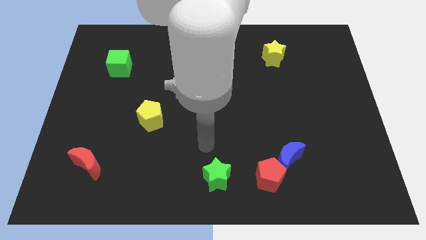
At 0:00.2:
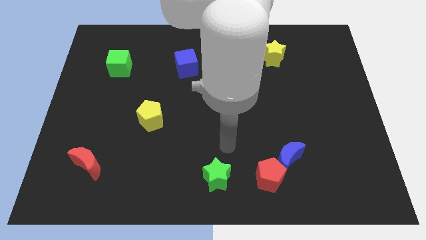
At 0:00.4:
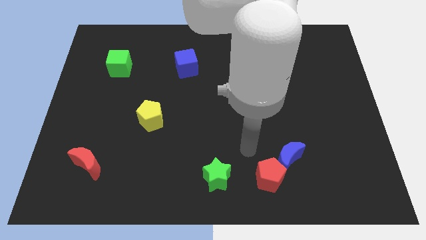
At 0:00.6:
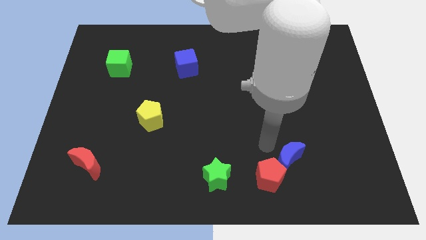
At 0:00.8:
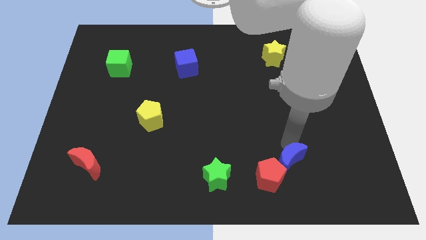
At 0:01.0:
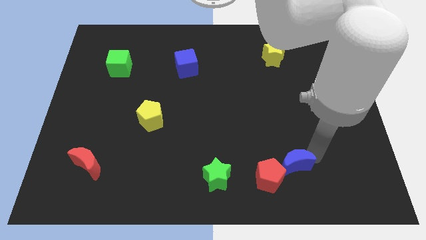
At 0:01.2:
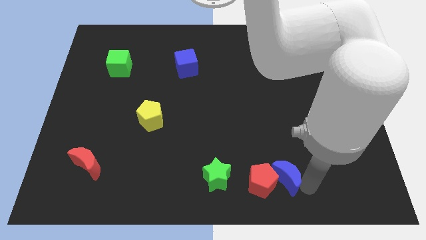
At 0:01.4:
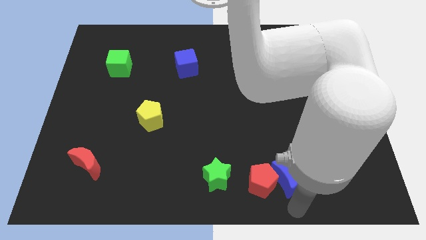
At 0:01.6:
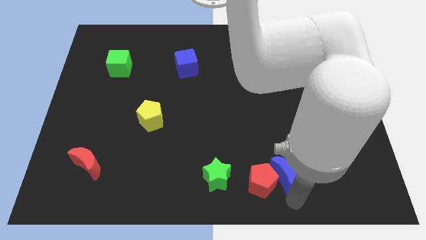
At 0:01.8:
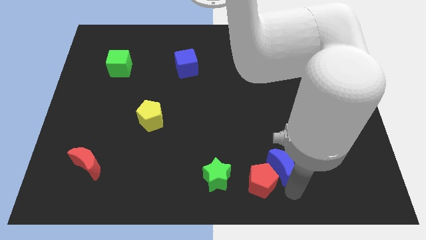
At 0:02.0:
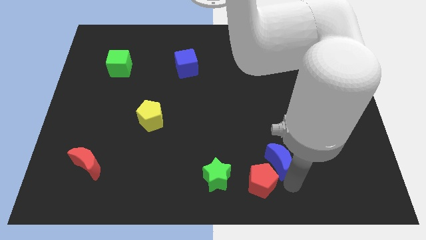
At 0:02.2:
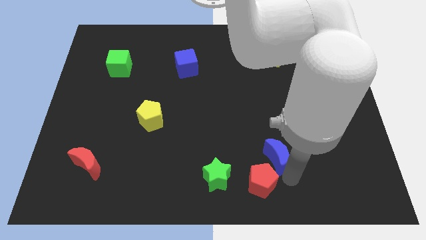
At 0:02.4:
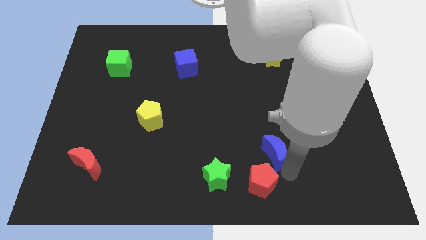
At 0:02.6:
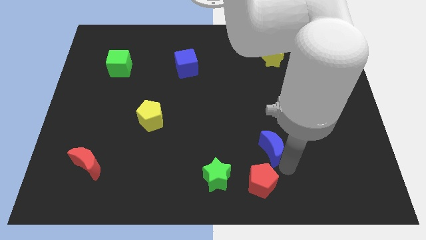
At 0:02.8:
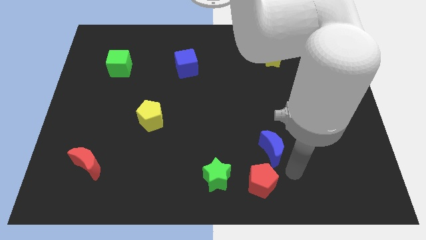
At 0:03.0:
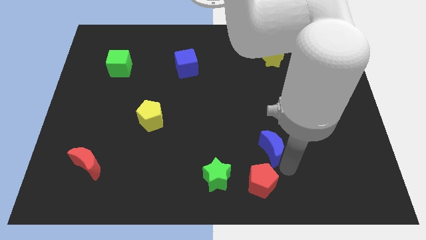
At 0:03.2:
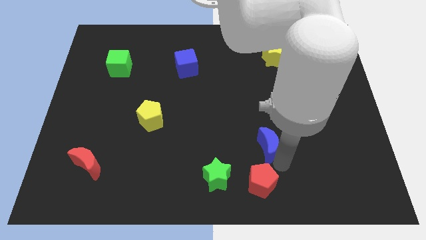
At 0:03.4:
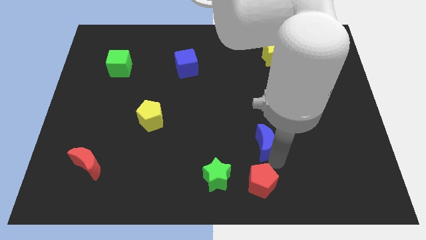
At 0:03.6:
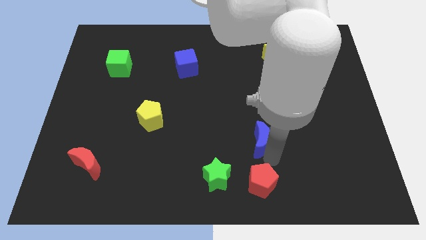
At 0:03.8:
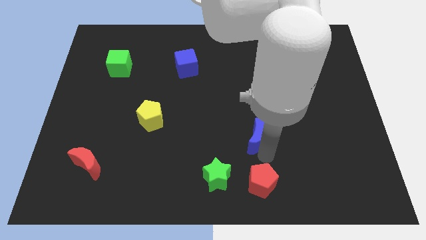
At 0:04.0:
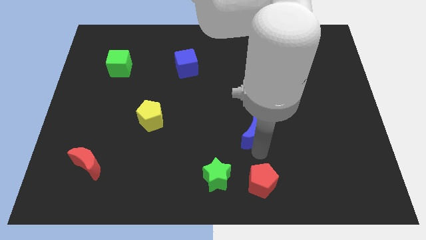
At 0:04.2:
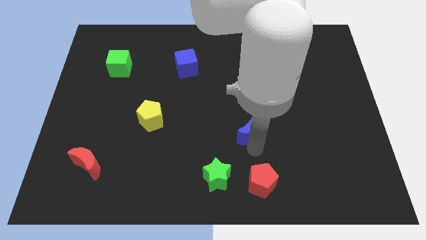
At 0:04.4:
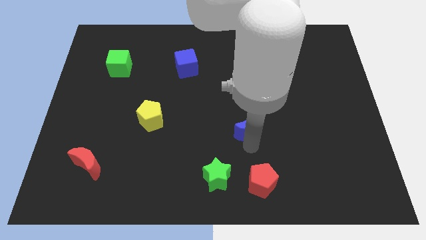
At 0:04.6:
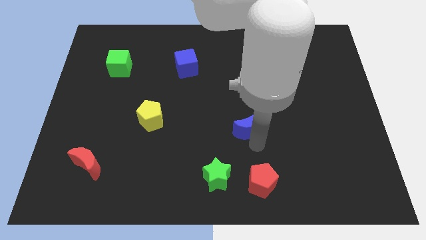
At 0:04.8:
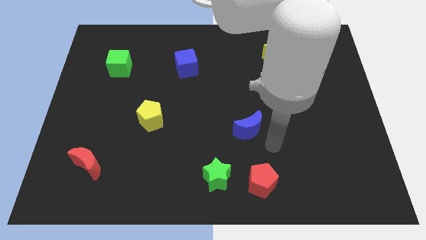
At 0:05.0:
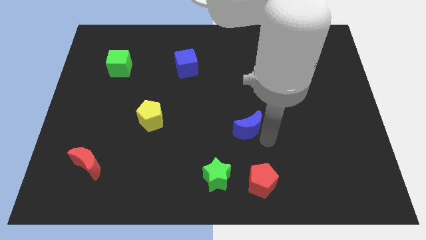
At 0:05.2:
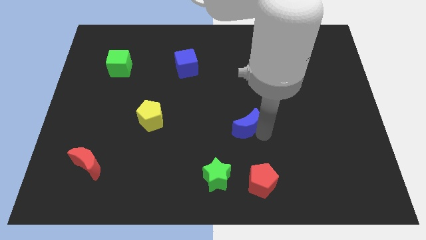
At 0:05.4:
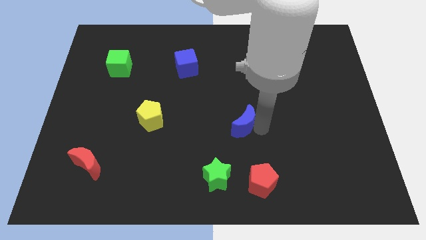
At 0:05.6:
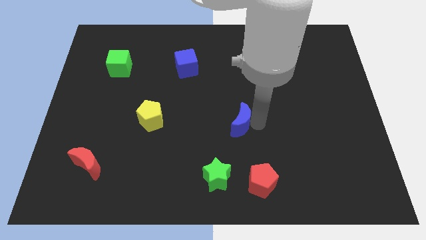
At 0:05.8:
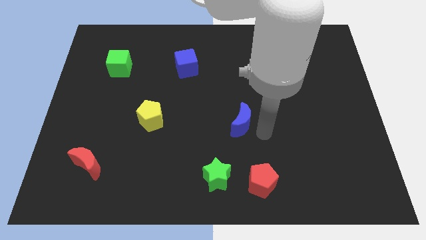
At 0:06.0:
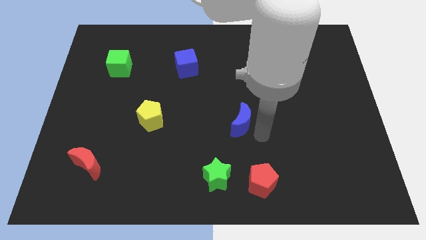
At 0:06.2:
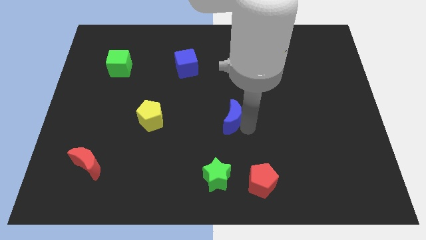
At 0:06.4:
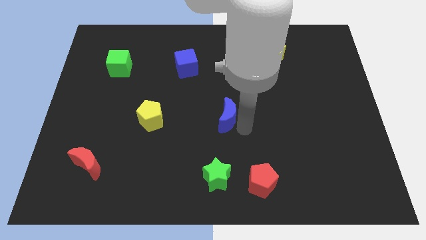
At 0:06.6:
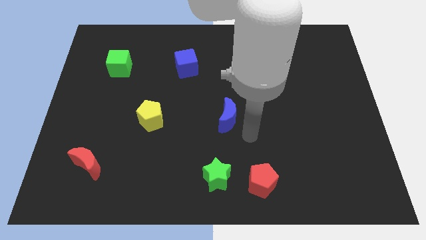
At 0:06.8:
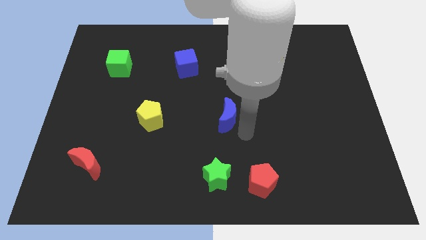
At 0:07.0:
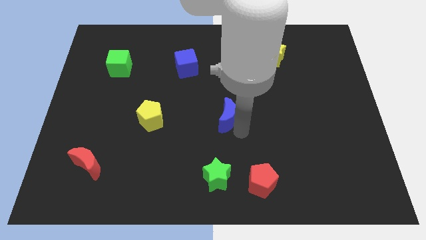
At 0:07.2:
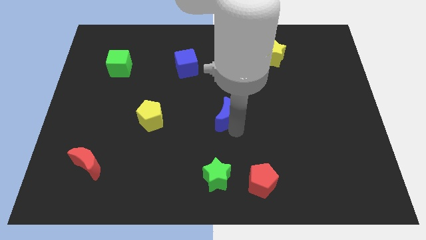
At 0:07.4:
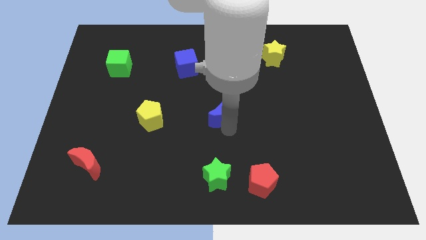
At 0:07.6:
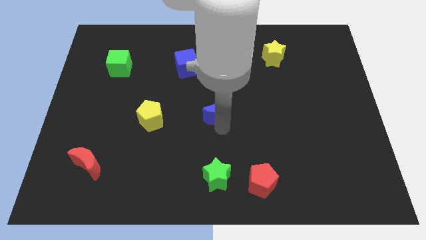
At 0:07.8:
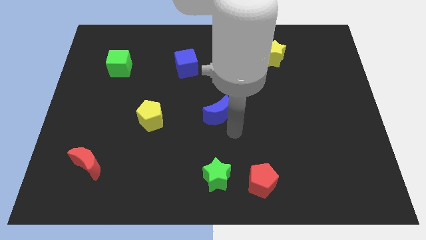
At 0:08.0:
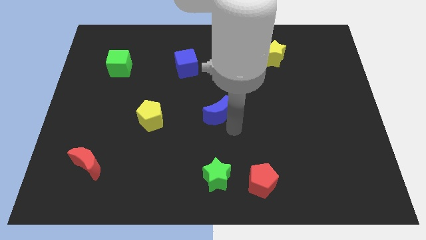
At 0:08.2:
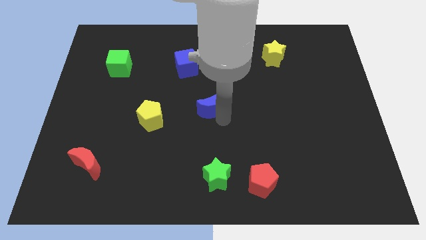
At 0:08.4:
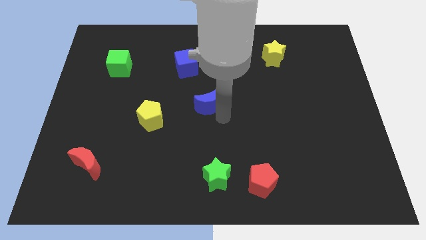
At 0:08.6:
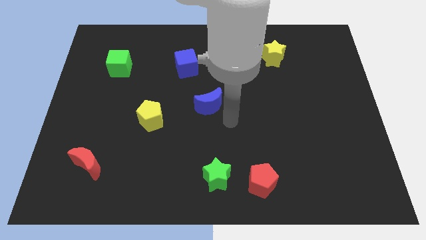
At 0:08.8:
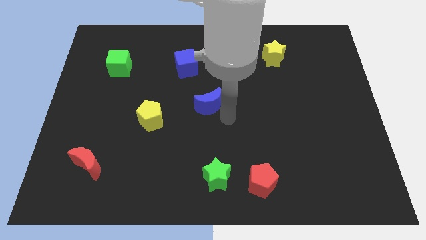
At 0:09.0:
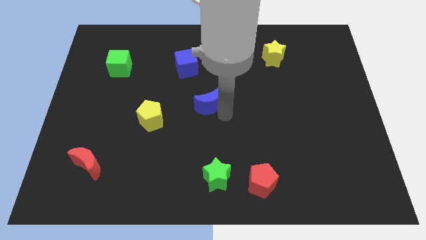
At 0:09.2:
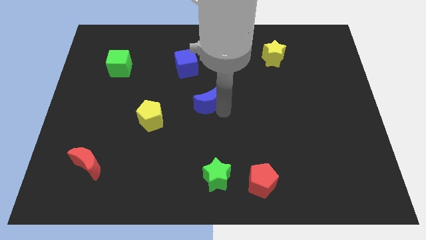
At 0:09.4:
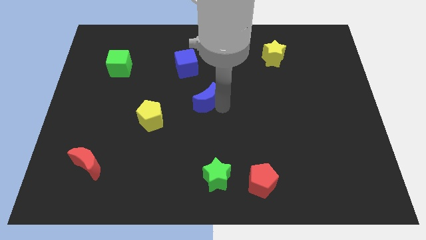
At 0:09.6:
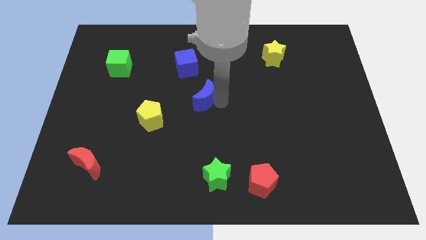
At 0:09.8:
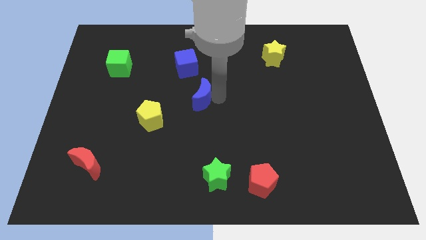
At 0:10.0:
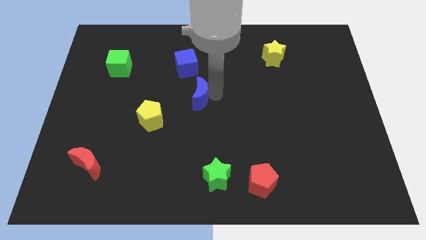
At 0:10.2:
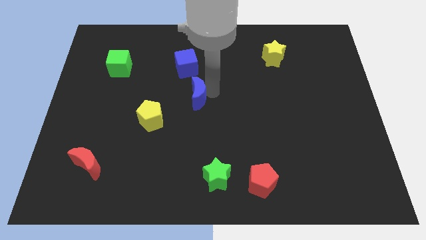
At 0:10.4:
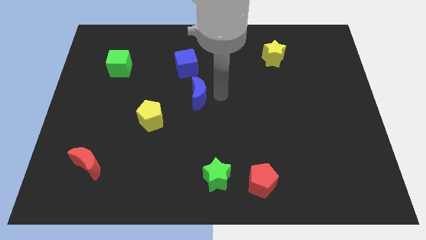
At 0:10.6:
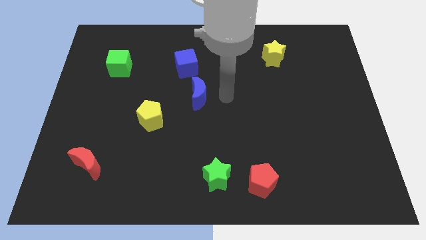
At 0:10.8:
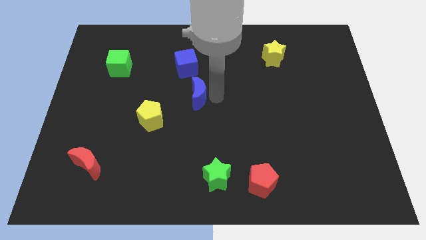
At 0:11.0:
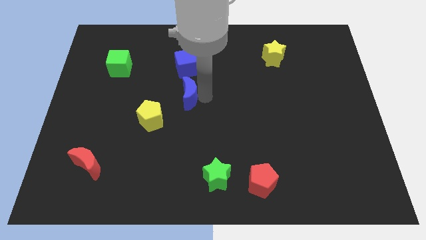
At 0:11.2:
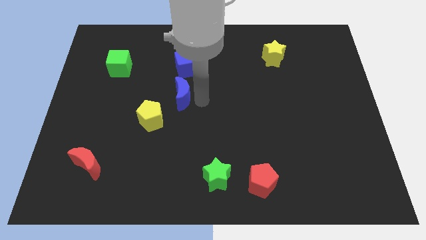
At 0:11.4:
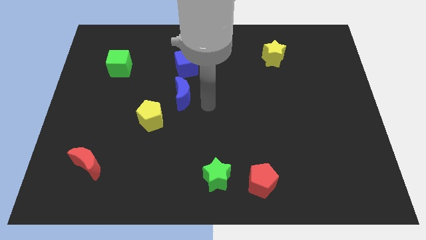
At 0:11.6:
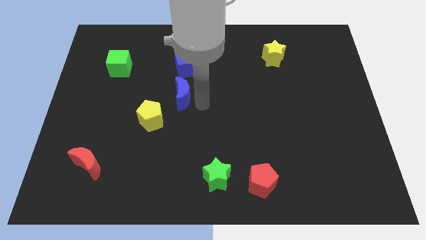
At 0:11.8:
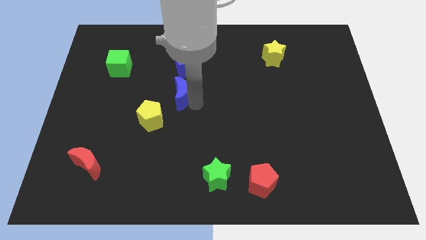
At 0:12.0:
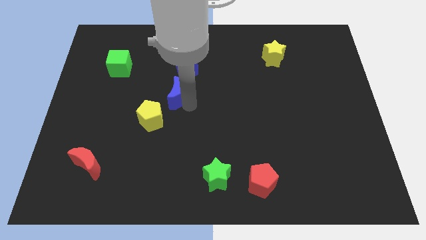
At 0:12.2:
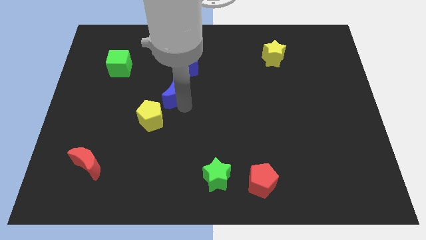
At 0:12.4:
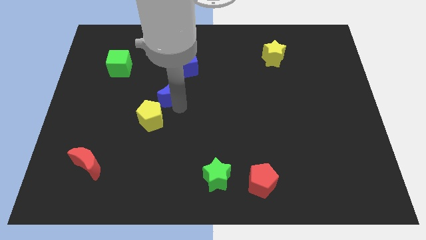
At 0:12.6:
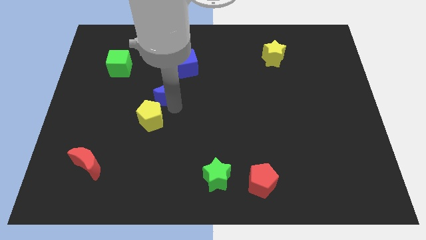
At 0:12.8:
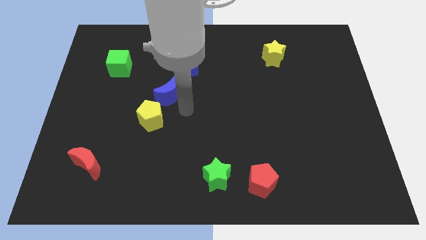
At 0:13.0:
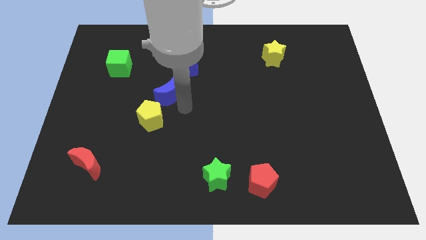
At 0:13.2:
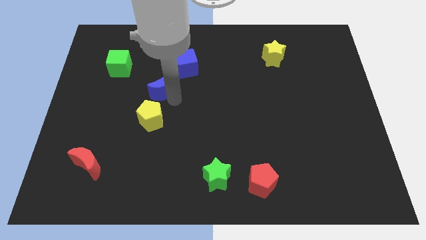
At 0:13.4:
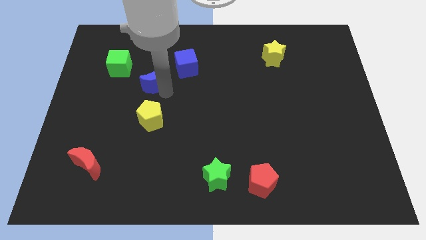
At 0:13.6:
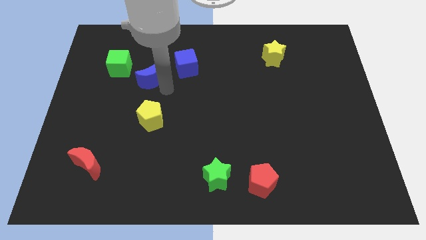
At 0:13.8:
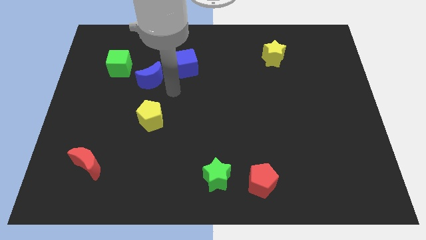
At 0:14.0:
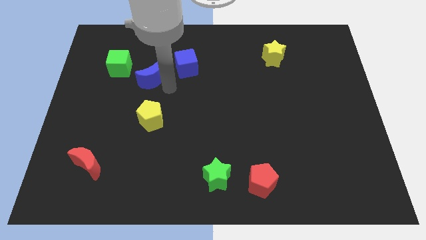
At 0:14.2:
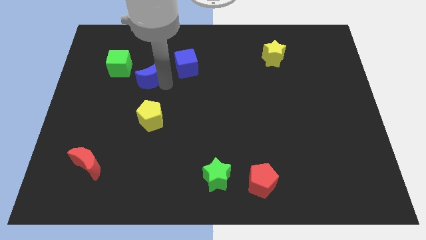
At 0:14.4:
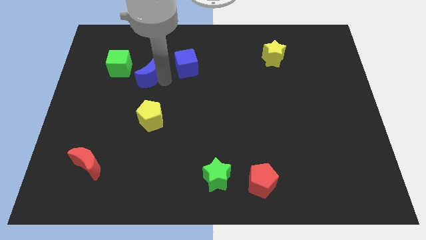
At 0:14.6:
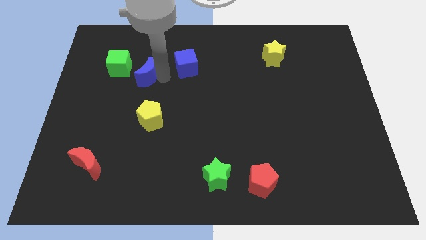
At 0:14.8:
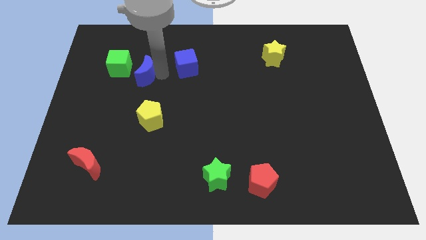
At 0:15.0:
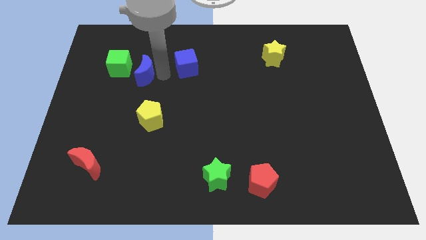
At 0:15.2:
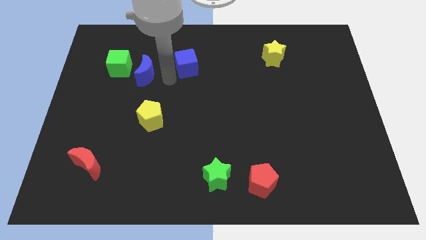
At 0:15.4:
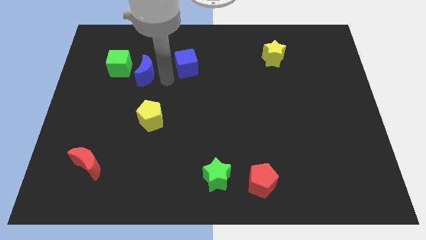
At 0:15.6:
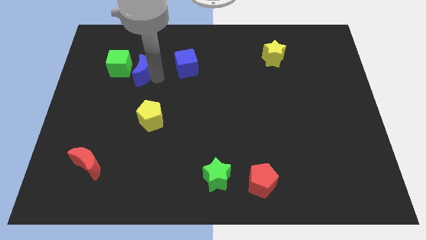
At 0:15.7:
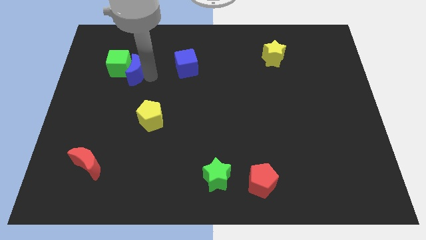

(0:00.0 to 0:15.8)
put the blue moon towards the green cube
